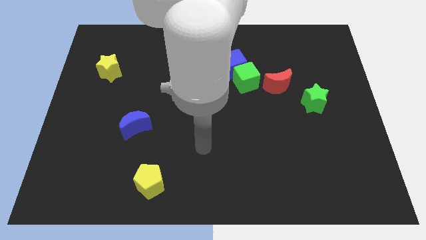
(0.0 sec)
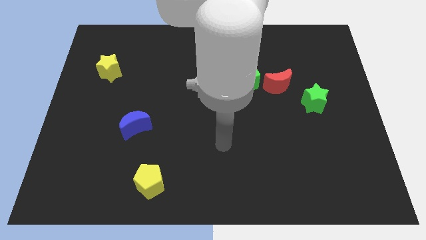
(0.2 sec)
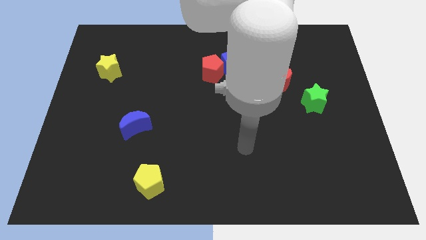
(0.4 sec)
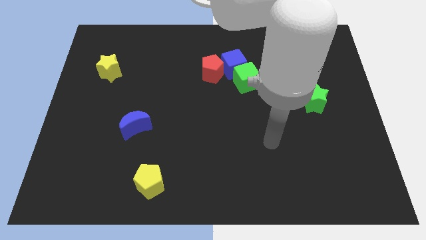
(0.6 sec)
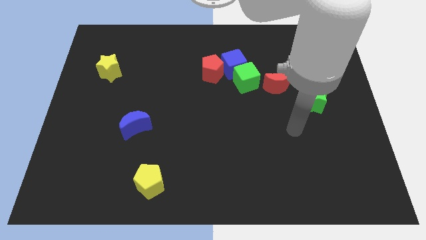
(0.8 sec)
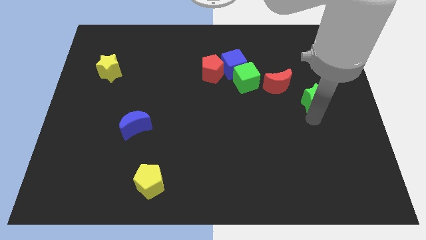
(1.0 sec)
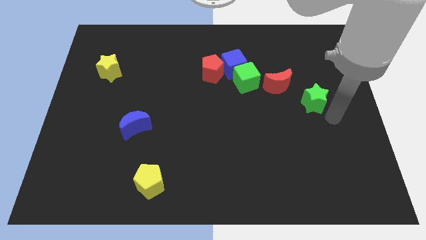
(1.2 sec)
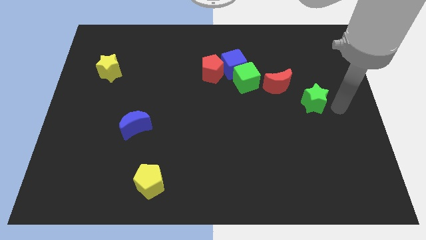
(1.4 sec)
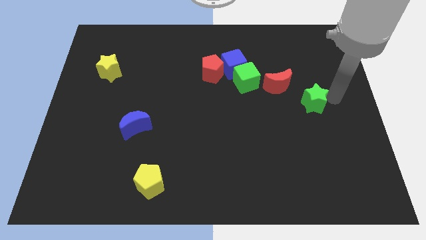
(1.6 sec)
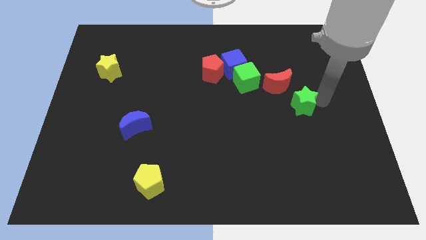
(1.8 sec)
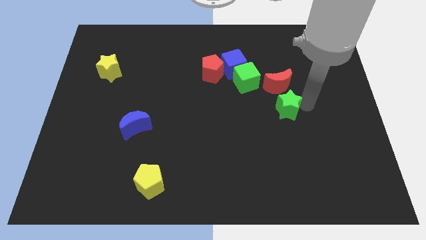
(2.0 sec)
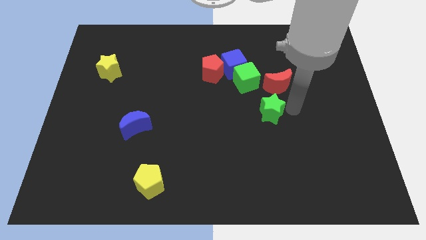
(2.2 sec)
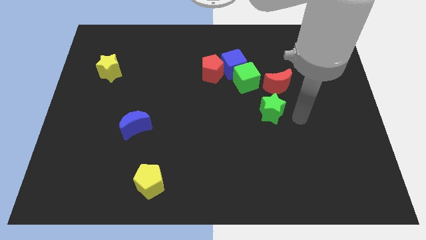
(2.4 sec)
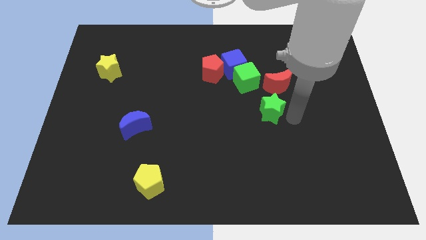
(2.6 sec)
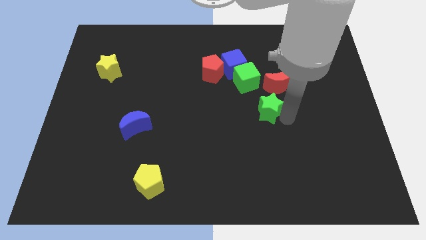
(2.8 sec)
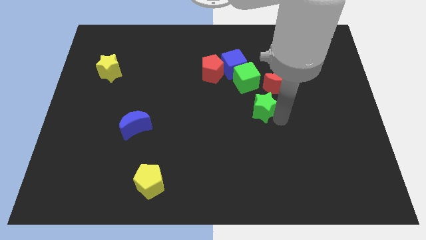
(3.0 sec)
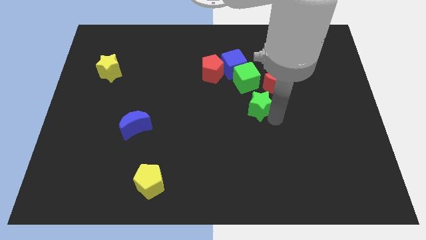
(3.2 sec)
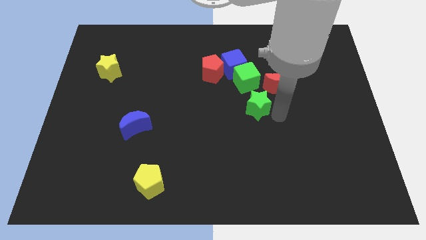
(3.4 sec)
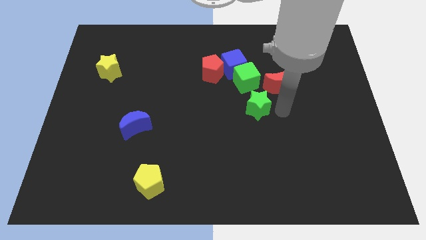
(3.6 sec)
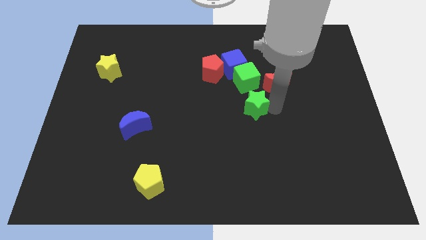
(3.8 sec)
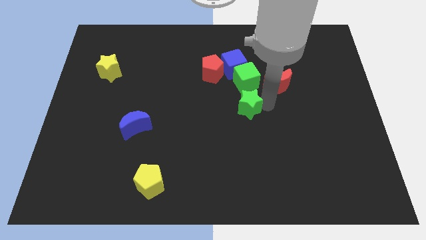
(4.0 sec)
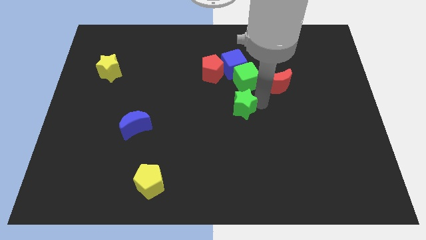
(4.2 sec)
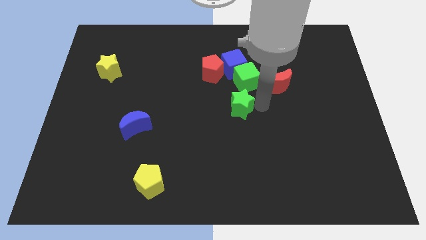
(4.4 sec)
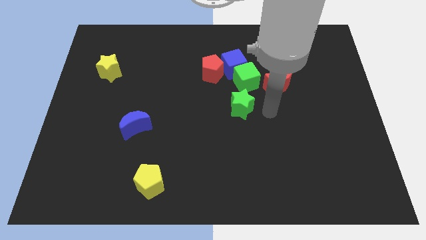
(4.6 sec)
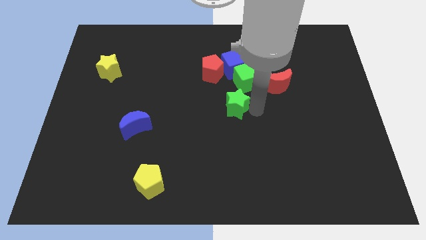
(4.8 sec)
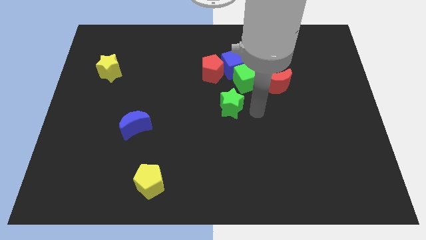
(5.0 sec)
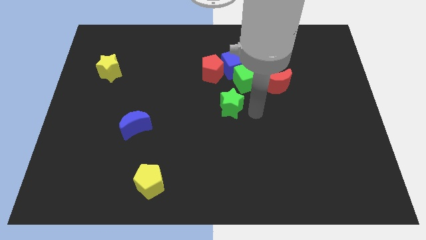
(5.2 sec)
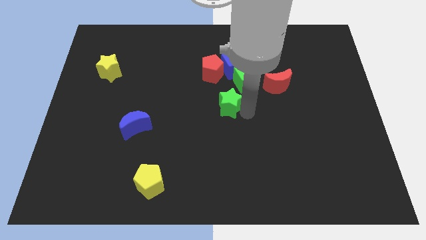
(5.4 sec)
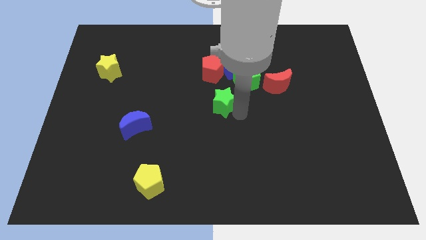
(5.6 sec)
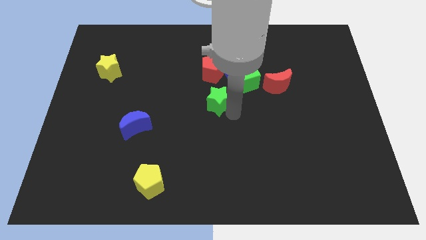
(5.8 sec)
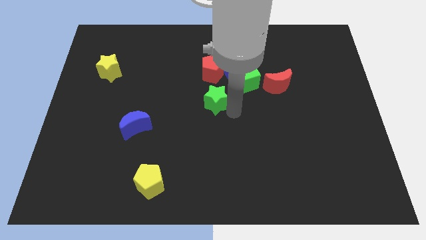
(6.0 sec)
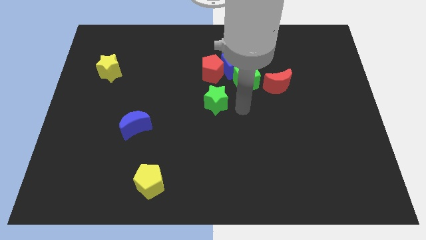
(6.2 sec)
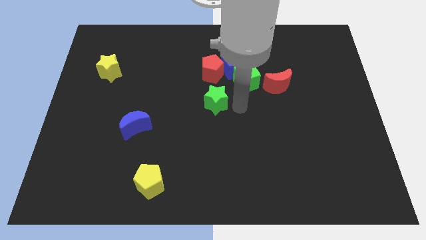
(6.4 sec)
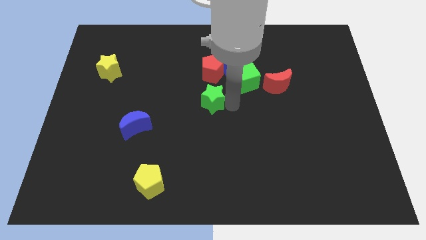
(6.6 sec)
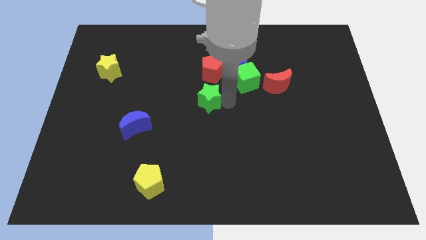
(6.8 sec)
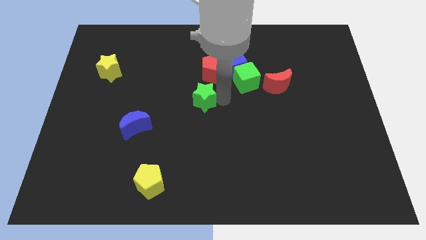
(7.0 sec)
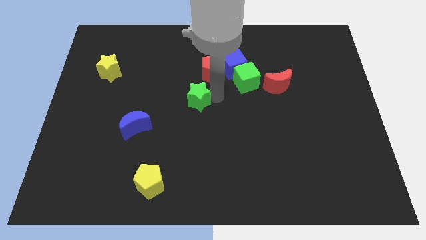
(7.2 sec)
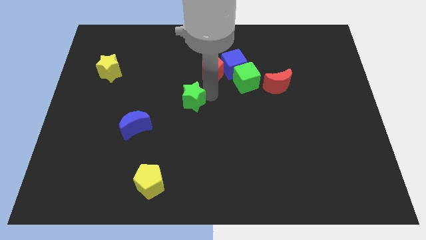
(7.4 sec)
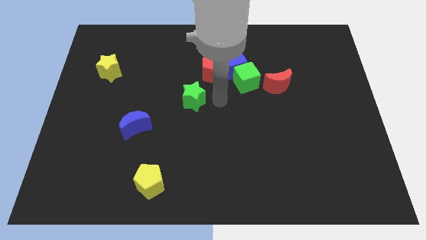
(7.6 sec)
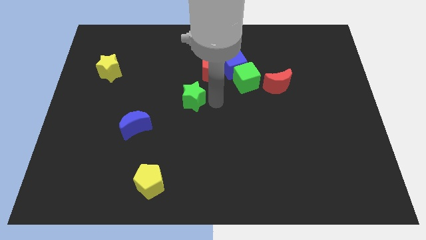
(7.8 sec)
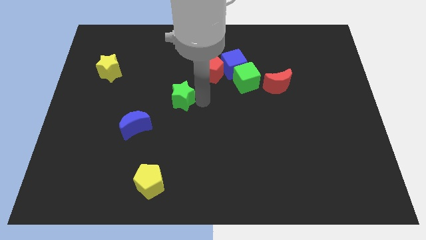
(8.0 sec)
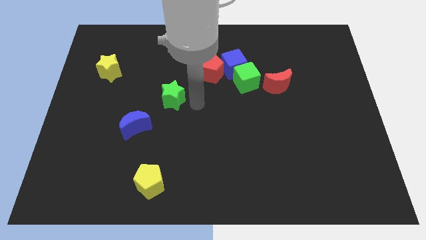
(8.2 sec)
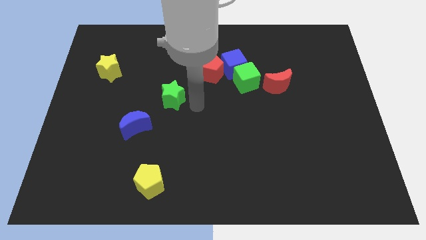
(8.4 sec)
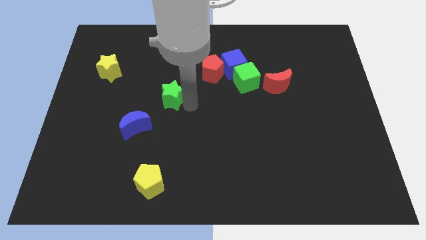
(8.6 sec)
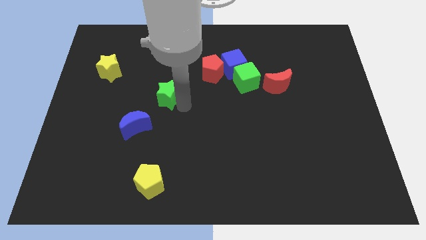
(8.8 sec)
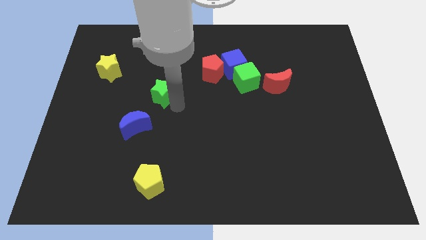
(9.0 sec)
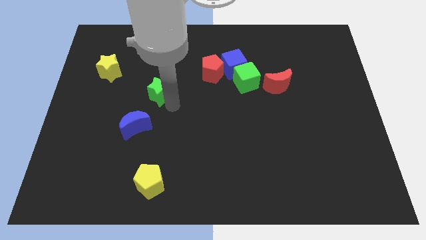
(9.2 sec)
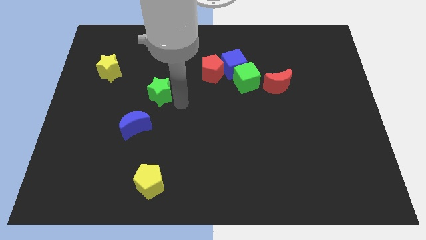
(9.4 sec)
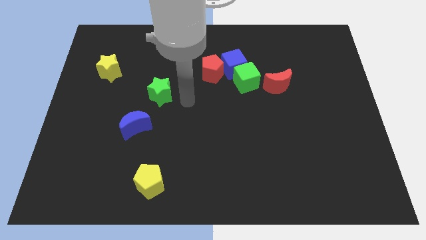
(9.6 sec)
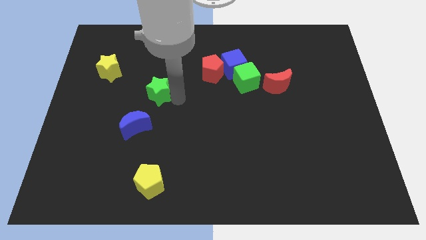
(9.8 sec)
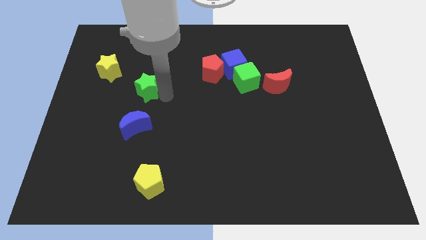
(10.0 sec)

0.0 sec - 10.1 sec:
push the green star to the bottom right of the yellow star

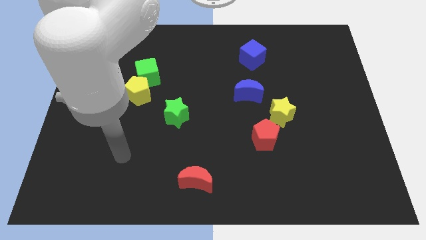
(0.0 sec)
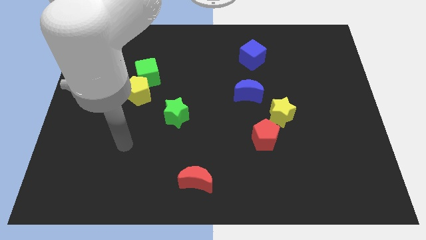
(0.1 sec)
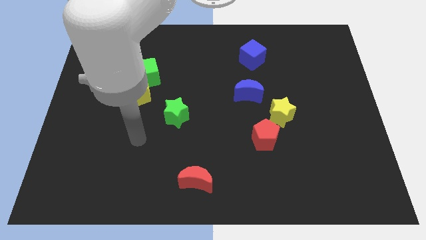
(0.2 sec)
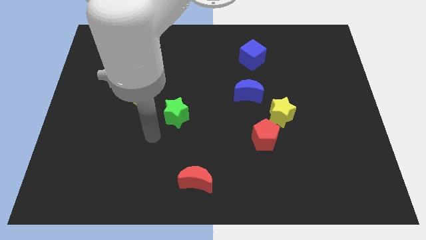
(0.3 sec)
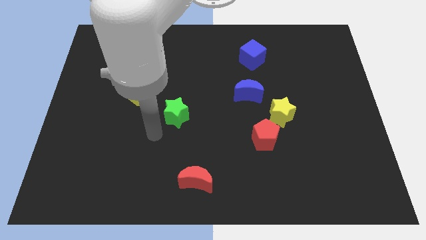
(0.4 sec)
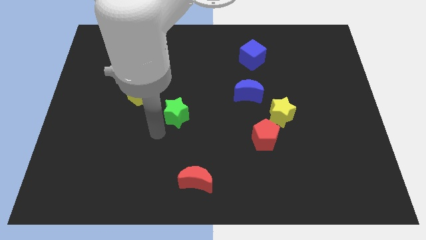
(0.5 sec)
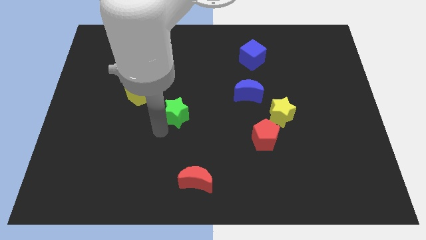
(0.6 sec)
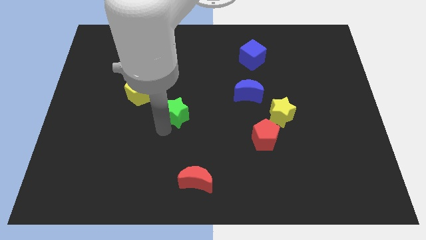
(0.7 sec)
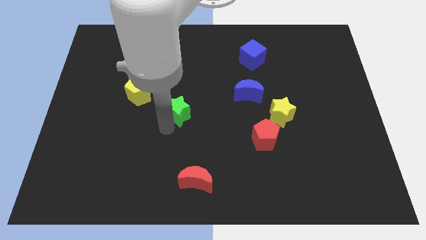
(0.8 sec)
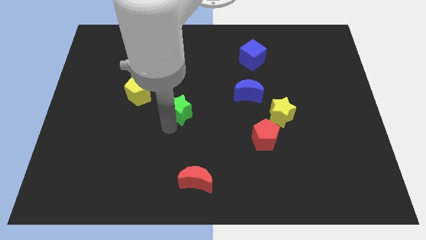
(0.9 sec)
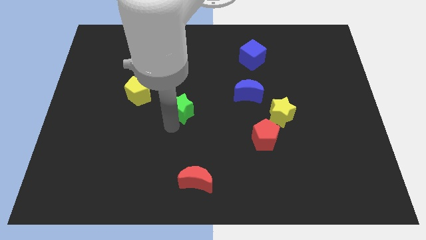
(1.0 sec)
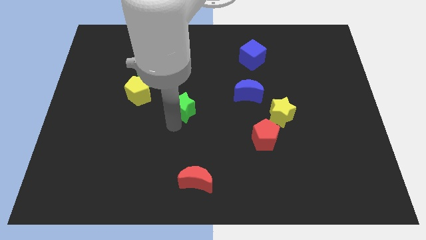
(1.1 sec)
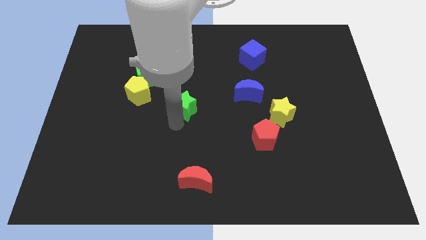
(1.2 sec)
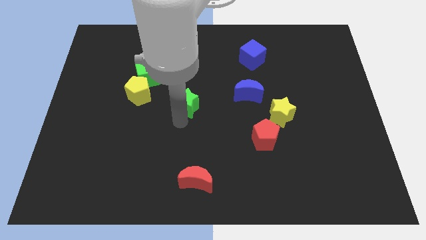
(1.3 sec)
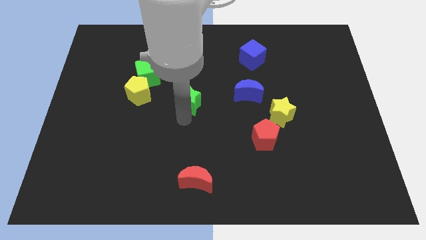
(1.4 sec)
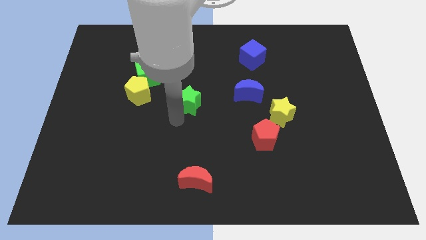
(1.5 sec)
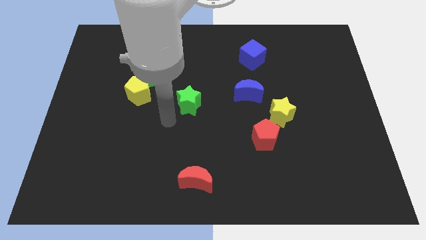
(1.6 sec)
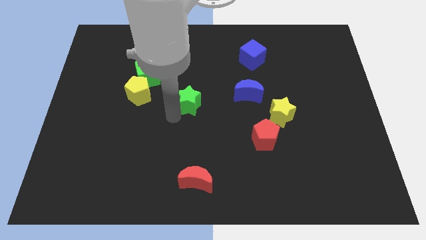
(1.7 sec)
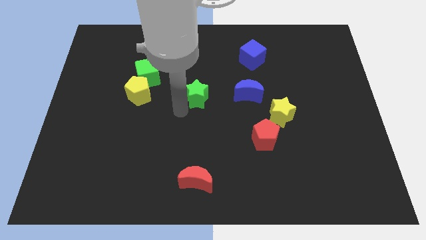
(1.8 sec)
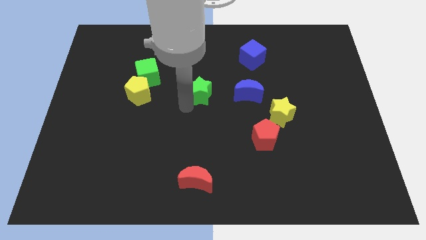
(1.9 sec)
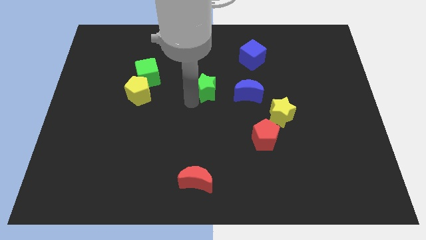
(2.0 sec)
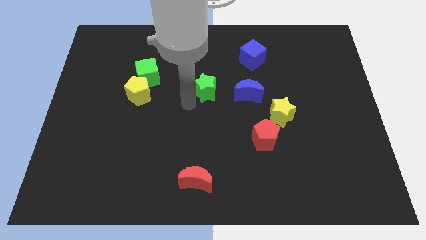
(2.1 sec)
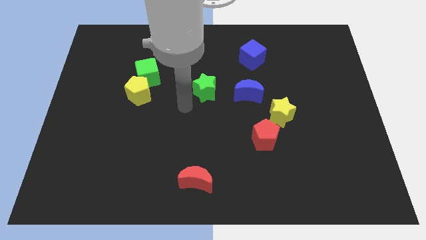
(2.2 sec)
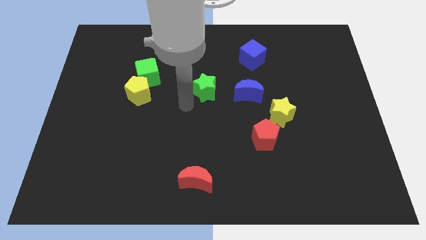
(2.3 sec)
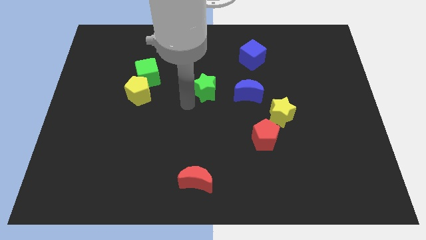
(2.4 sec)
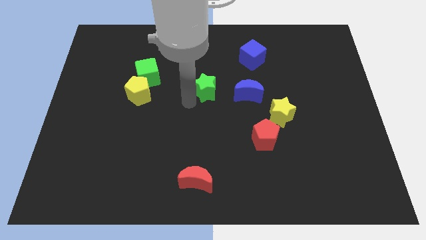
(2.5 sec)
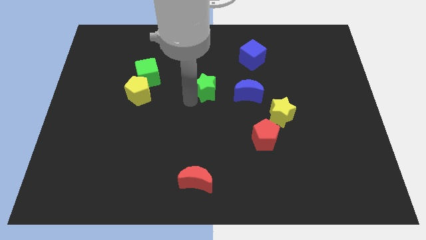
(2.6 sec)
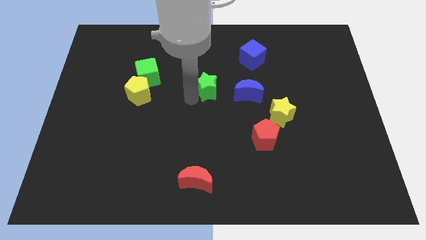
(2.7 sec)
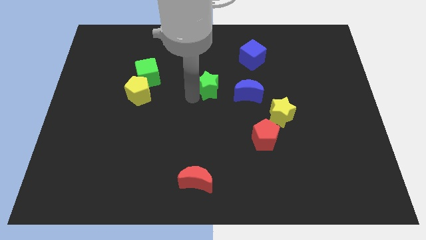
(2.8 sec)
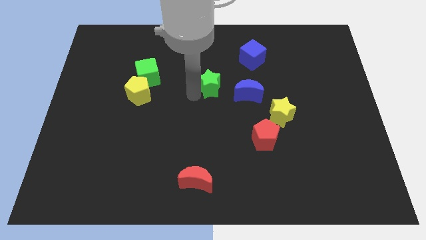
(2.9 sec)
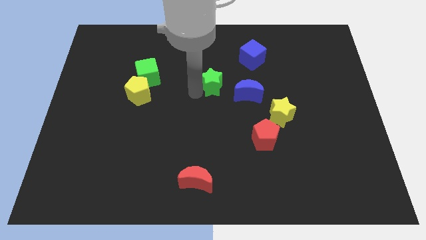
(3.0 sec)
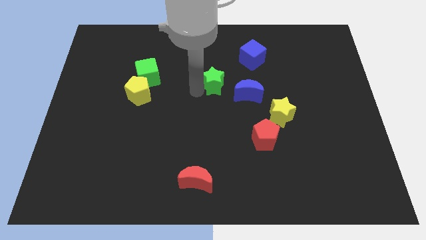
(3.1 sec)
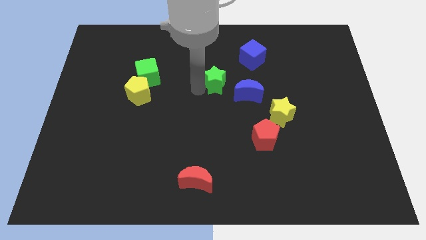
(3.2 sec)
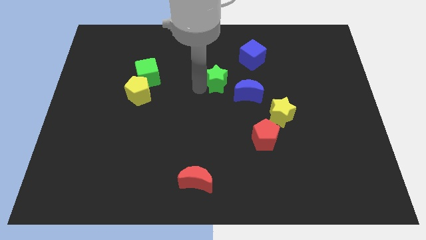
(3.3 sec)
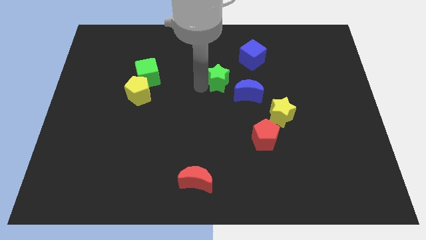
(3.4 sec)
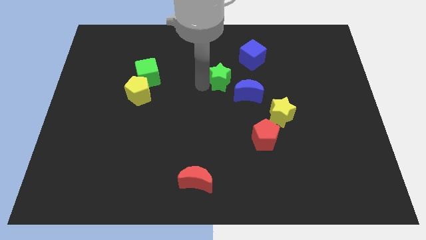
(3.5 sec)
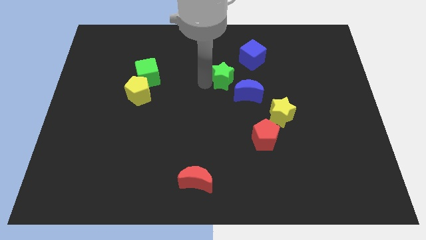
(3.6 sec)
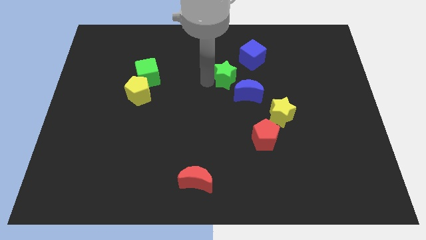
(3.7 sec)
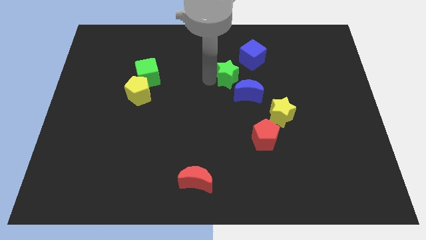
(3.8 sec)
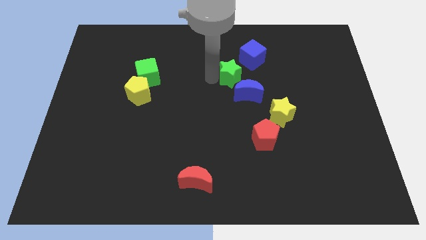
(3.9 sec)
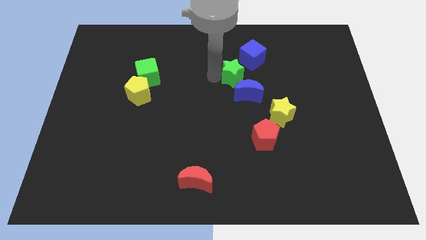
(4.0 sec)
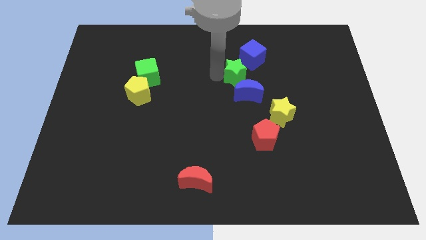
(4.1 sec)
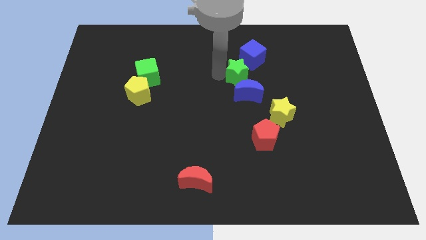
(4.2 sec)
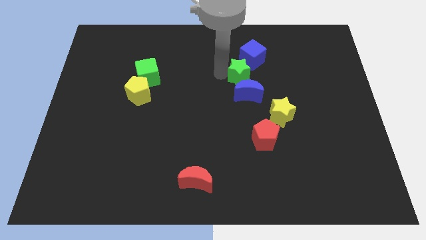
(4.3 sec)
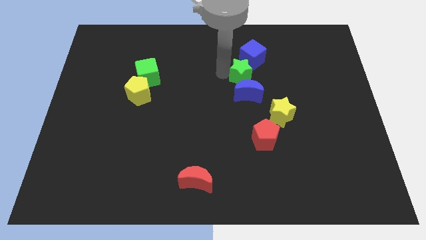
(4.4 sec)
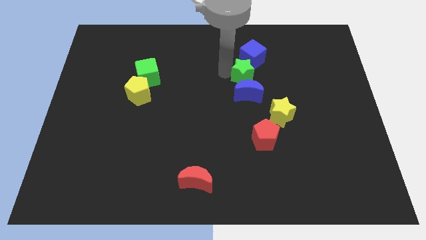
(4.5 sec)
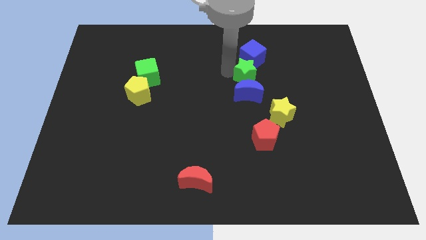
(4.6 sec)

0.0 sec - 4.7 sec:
slide the green star to the top right side of the blue moon
